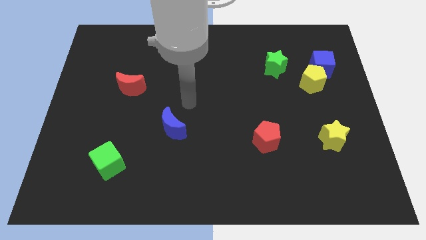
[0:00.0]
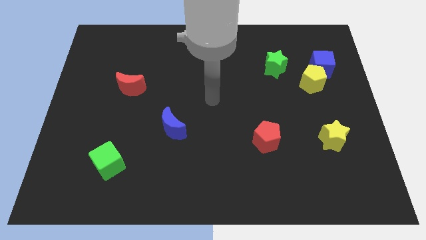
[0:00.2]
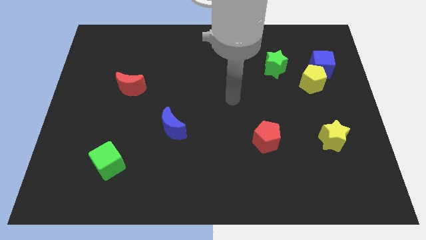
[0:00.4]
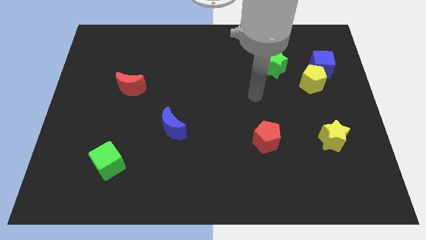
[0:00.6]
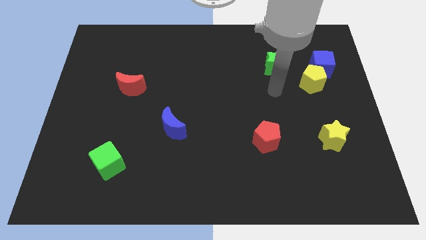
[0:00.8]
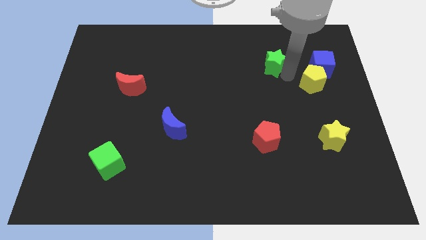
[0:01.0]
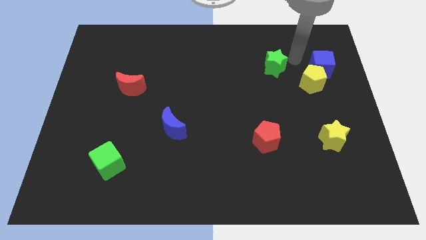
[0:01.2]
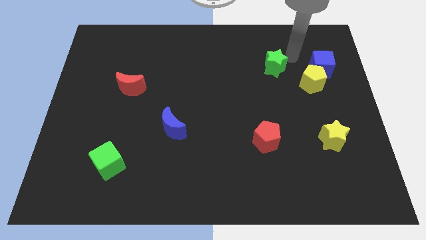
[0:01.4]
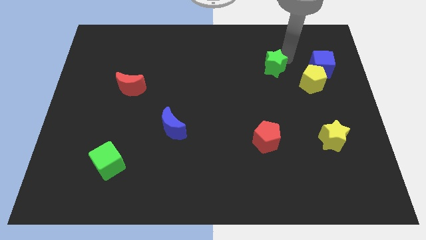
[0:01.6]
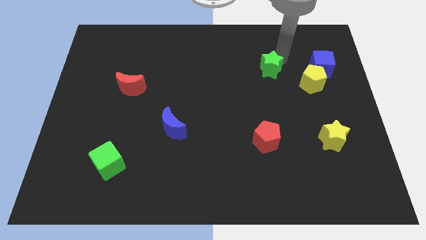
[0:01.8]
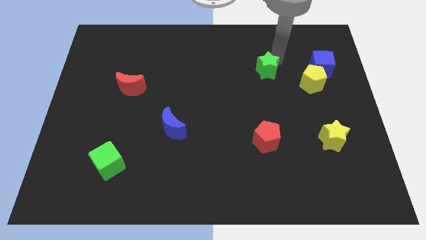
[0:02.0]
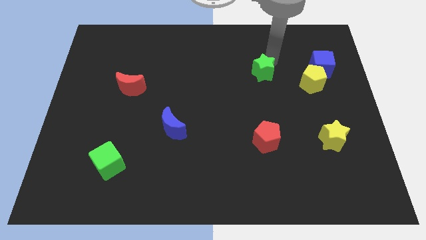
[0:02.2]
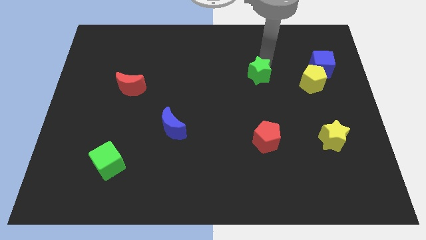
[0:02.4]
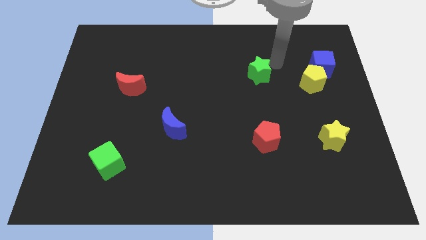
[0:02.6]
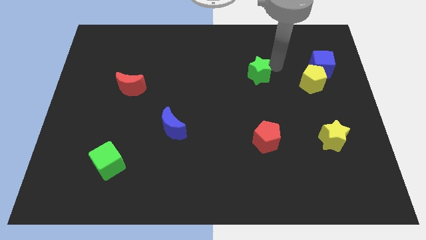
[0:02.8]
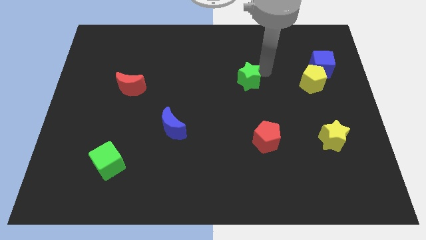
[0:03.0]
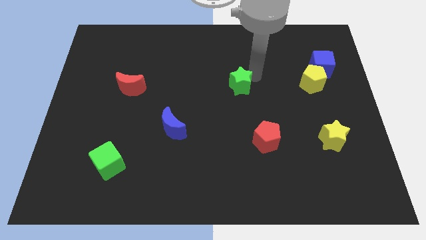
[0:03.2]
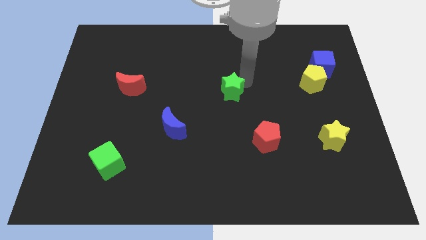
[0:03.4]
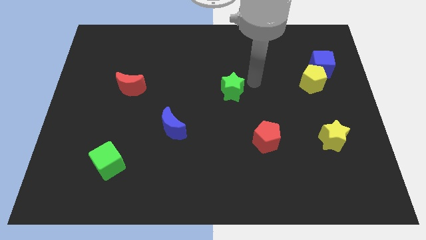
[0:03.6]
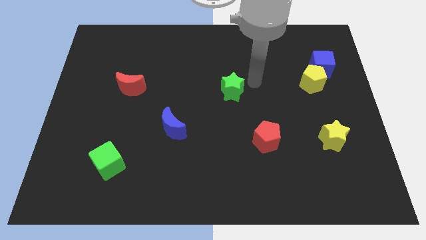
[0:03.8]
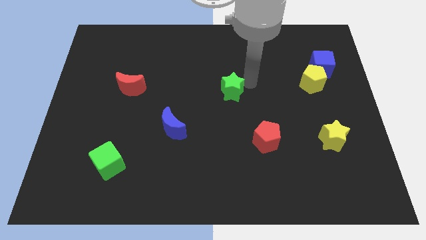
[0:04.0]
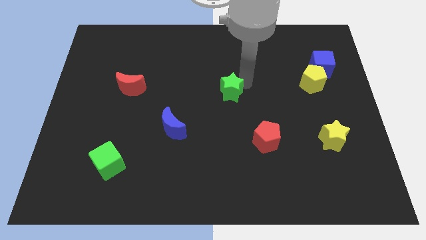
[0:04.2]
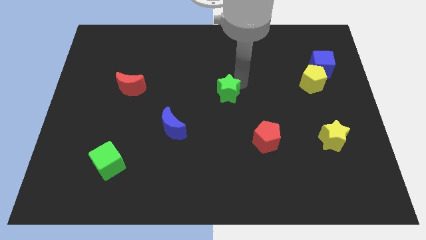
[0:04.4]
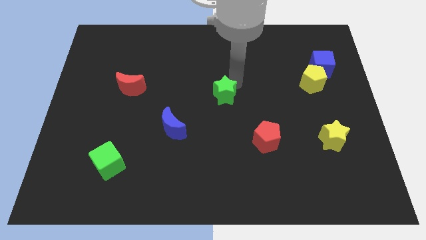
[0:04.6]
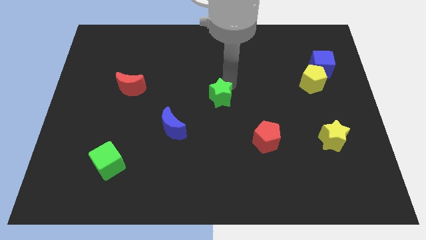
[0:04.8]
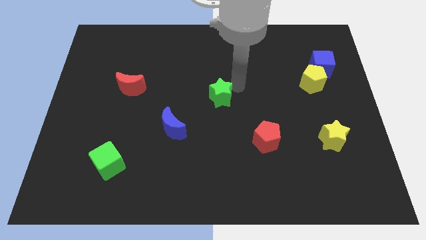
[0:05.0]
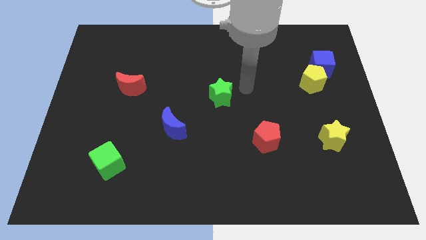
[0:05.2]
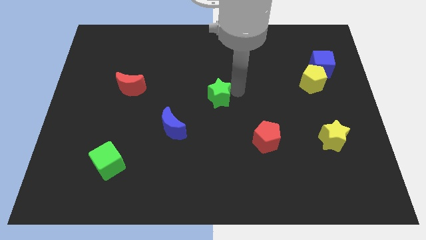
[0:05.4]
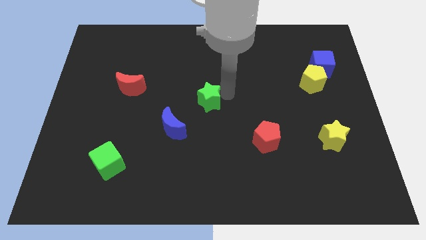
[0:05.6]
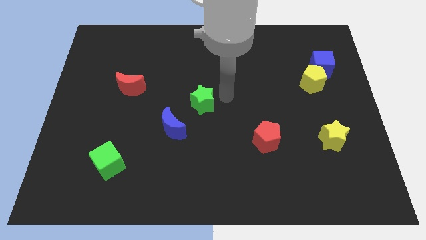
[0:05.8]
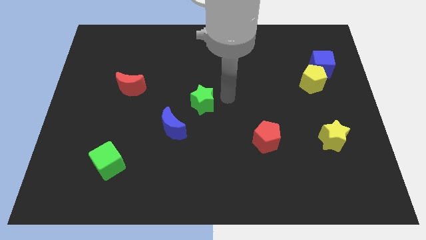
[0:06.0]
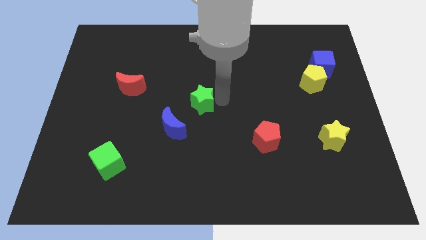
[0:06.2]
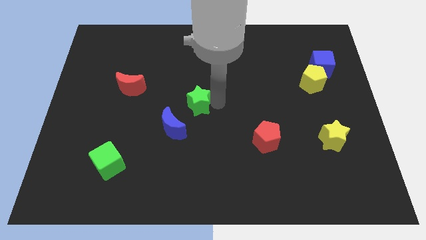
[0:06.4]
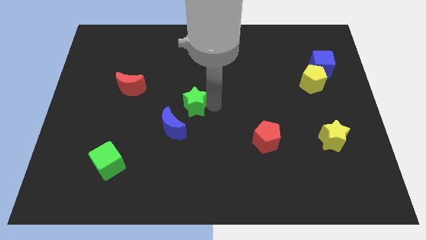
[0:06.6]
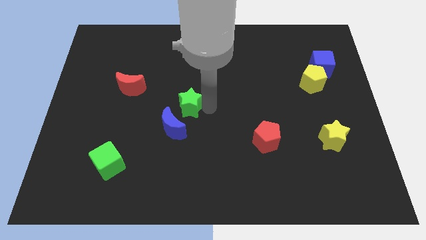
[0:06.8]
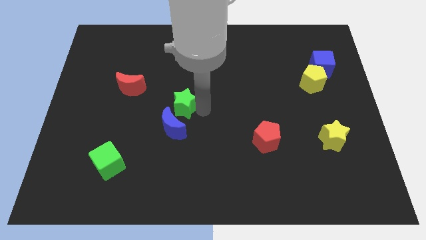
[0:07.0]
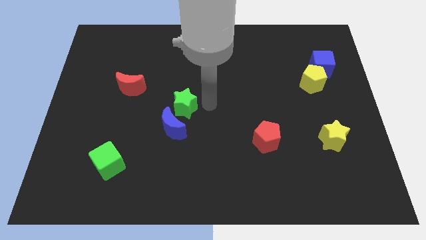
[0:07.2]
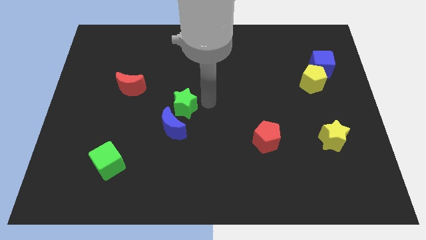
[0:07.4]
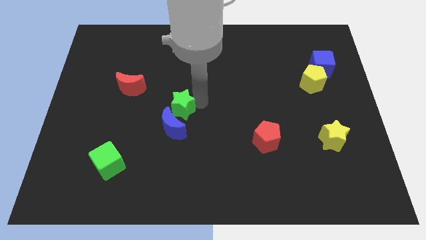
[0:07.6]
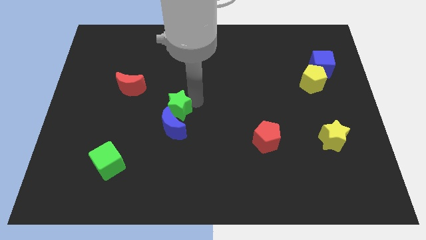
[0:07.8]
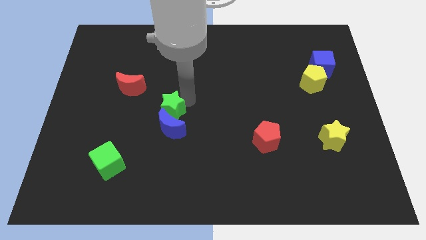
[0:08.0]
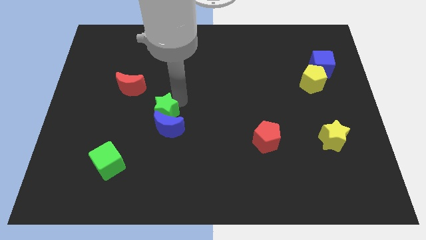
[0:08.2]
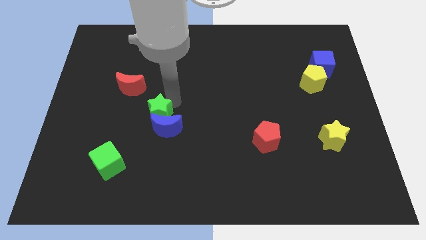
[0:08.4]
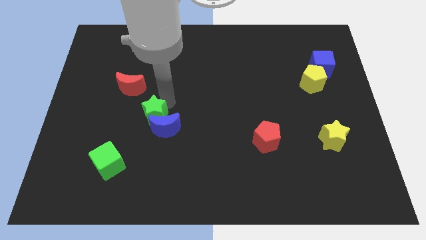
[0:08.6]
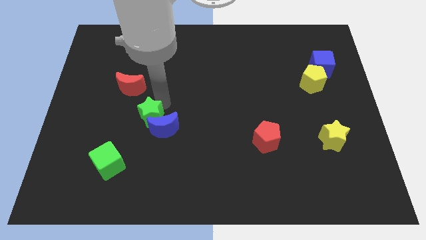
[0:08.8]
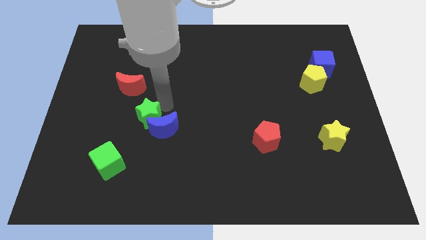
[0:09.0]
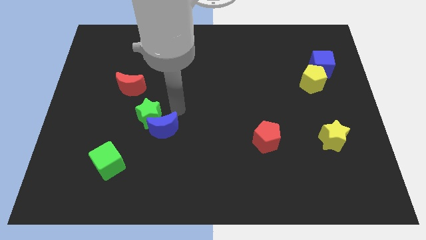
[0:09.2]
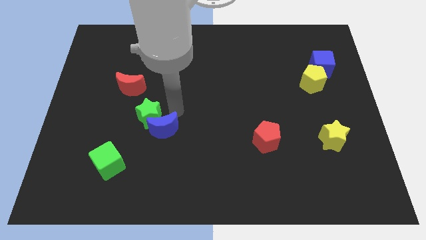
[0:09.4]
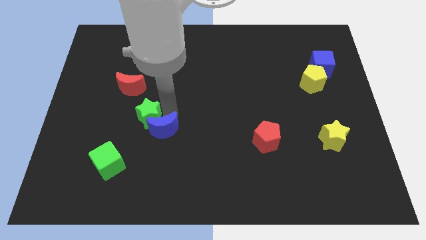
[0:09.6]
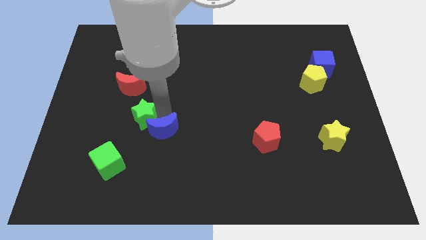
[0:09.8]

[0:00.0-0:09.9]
slide the green star to the bottom of the red moon

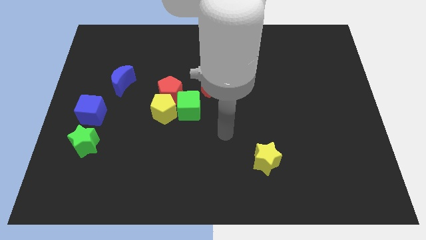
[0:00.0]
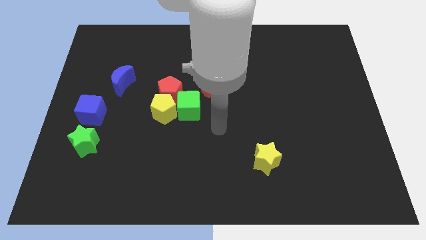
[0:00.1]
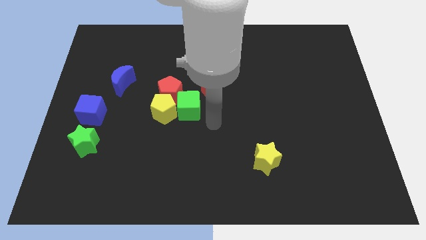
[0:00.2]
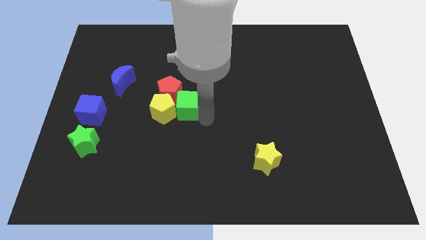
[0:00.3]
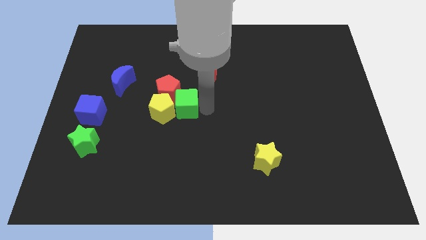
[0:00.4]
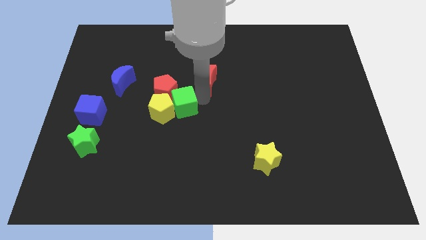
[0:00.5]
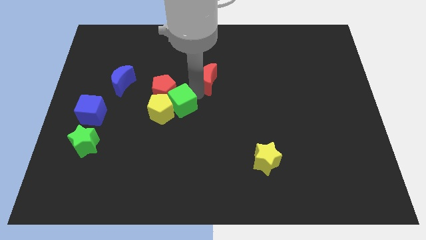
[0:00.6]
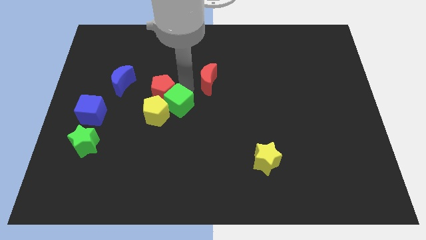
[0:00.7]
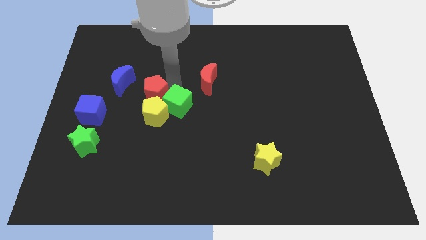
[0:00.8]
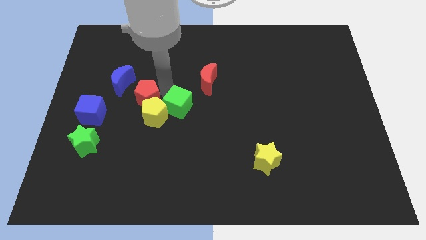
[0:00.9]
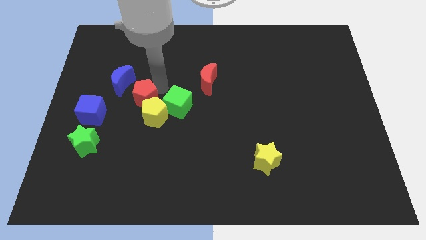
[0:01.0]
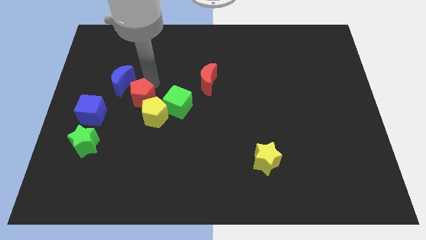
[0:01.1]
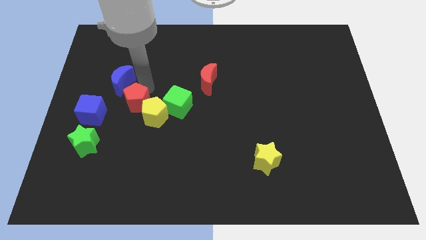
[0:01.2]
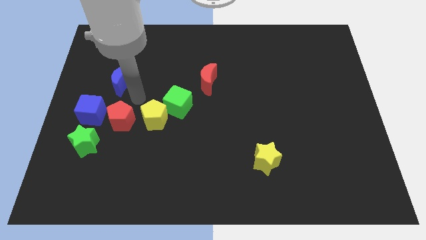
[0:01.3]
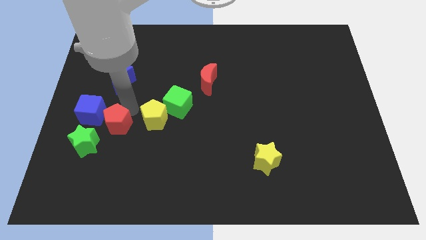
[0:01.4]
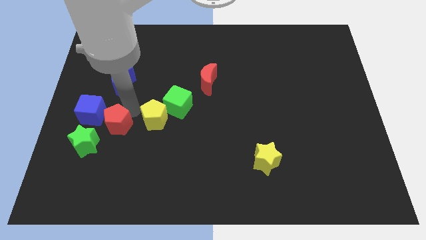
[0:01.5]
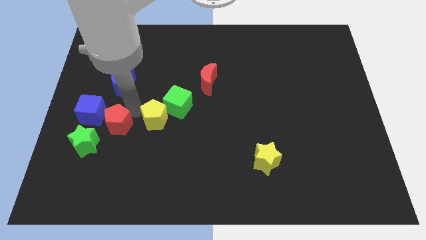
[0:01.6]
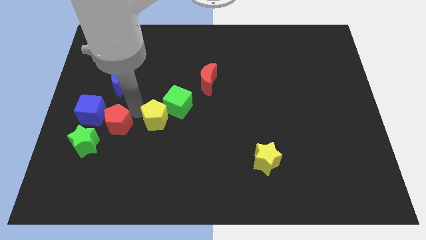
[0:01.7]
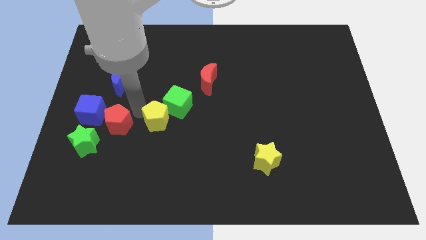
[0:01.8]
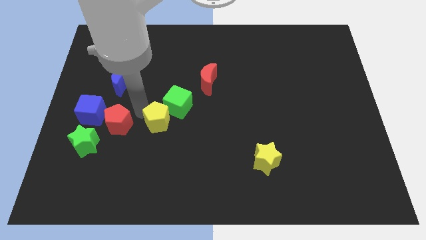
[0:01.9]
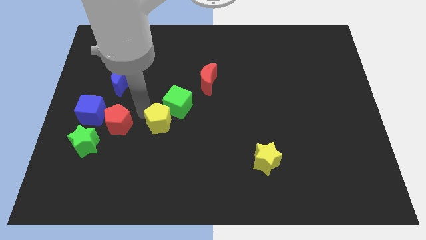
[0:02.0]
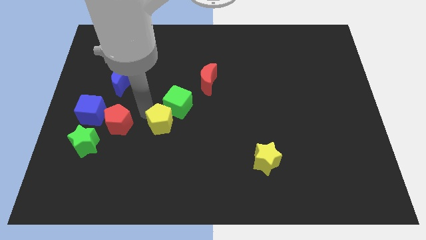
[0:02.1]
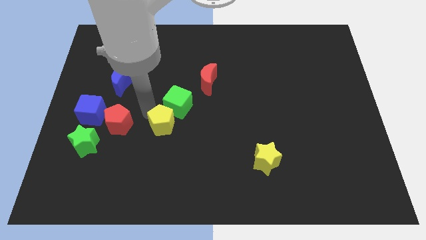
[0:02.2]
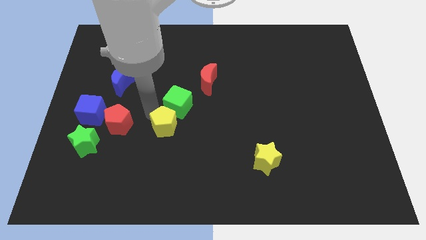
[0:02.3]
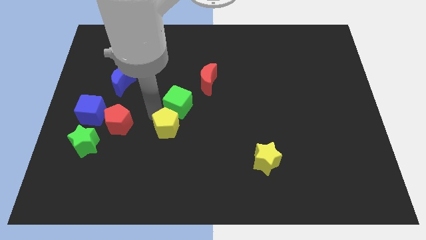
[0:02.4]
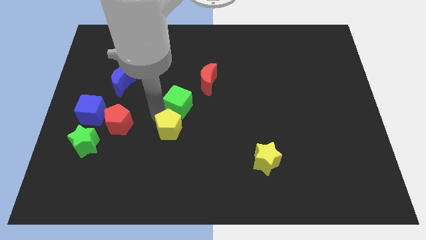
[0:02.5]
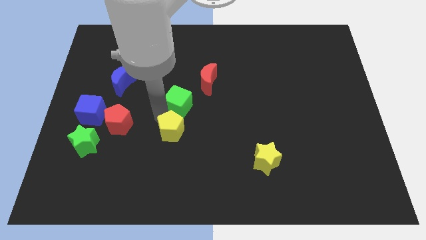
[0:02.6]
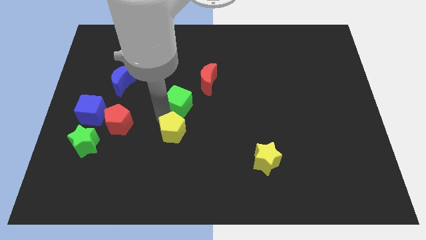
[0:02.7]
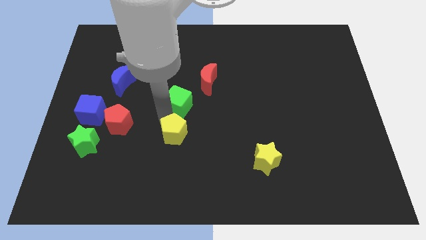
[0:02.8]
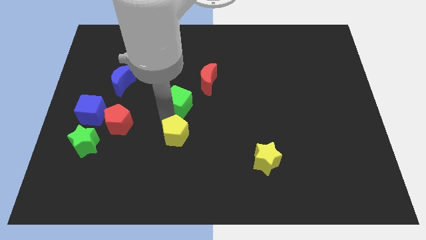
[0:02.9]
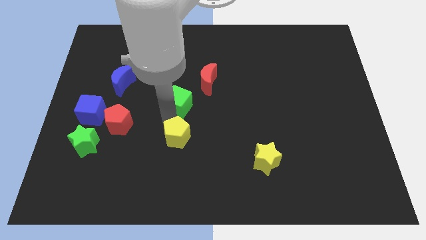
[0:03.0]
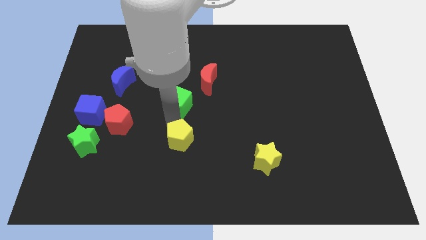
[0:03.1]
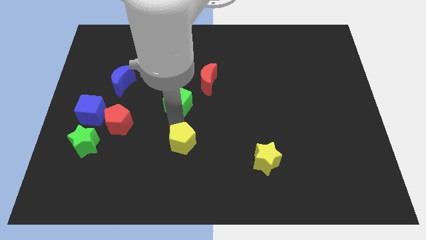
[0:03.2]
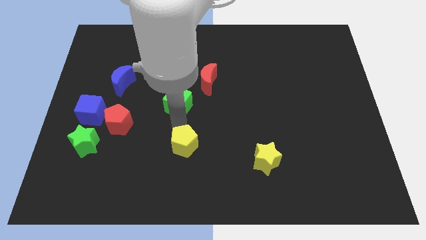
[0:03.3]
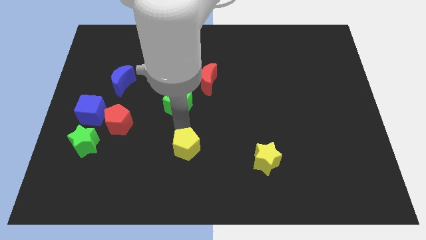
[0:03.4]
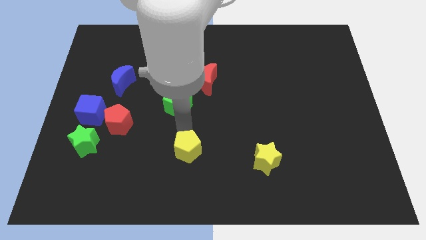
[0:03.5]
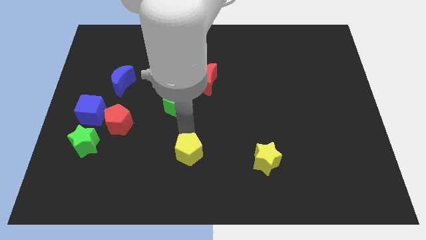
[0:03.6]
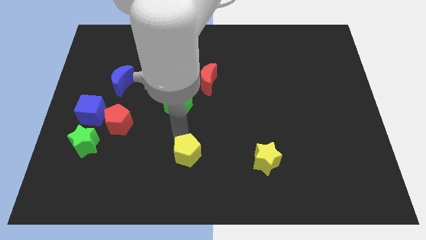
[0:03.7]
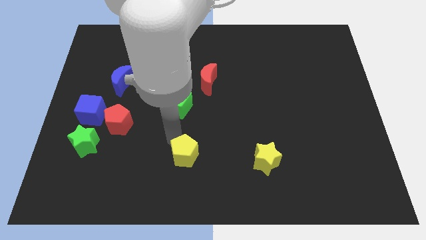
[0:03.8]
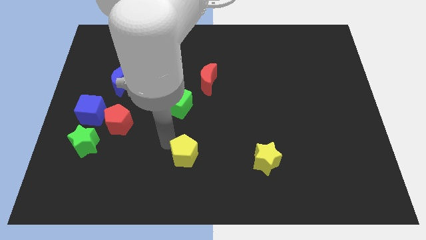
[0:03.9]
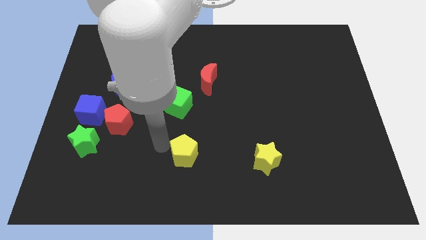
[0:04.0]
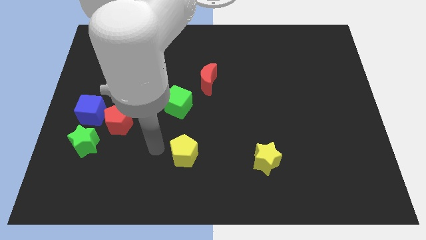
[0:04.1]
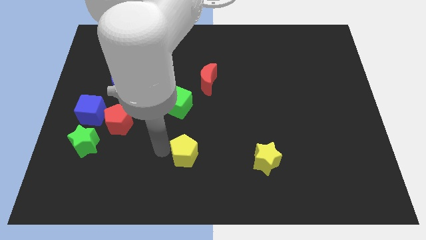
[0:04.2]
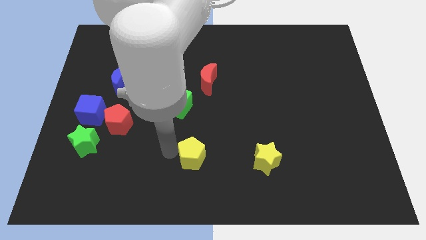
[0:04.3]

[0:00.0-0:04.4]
push the yellow pentagon to the left side of the yellow star
